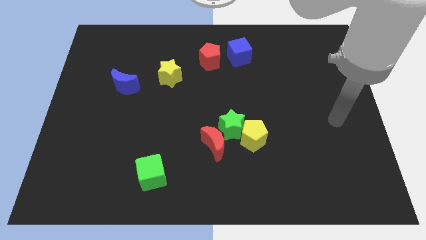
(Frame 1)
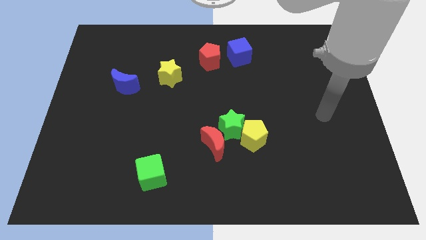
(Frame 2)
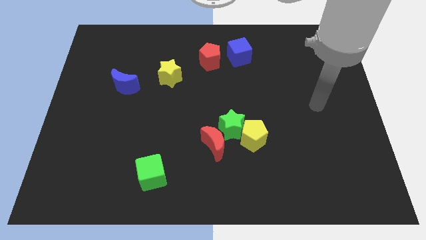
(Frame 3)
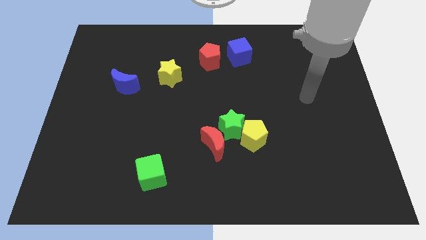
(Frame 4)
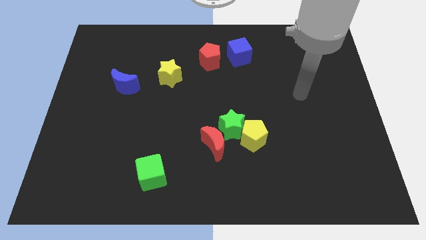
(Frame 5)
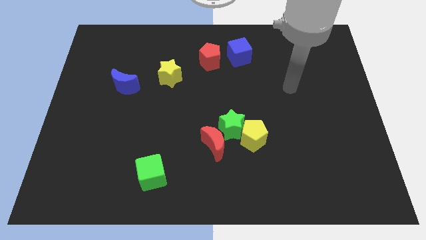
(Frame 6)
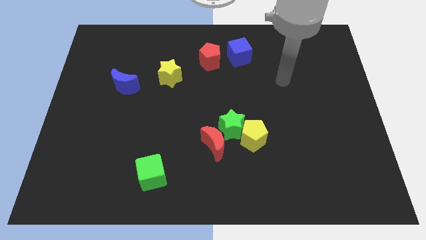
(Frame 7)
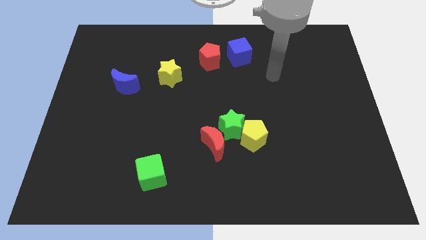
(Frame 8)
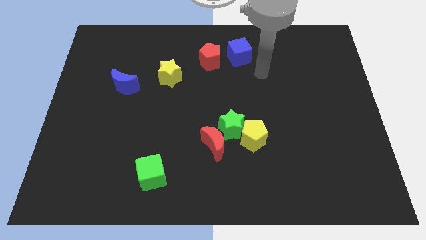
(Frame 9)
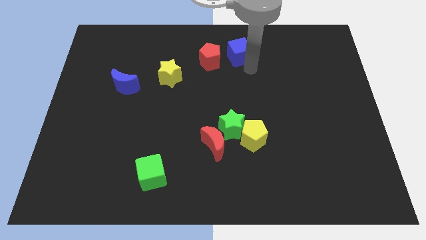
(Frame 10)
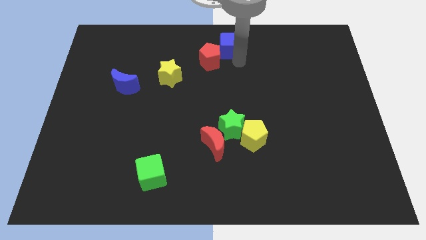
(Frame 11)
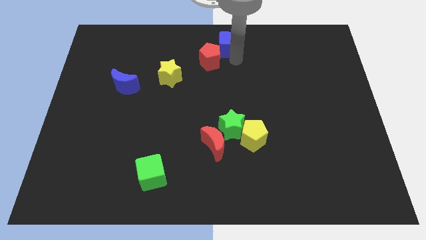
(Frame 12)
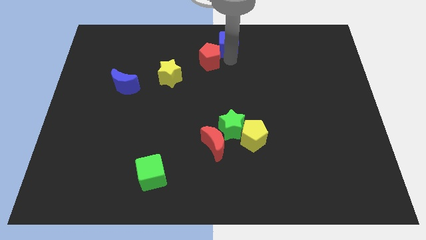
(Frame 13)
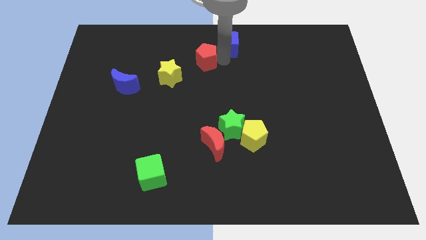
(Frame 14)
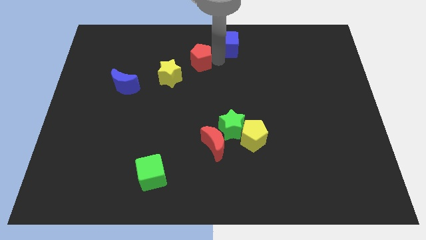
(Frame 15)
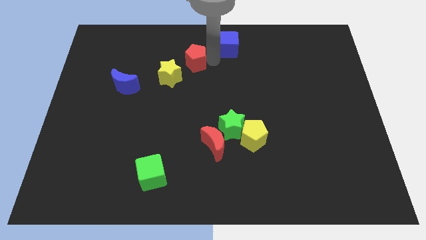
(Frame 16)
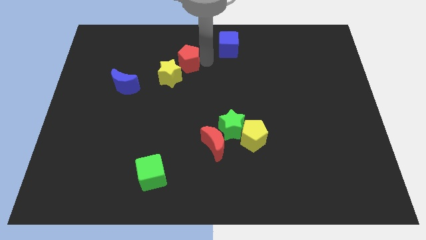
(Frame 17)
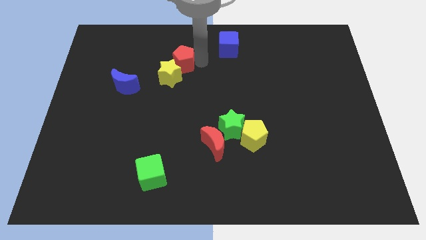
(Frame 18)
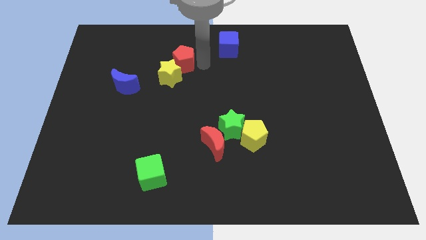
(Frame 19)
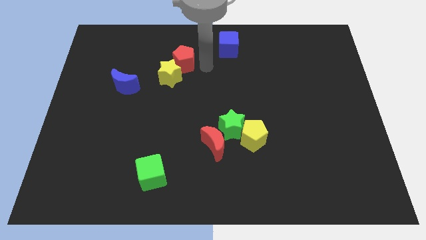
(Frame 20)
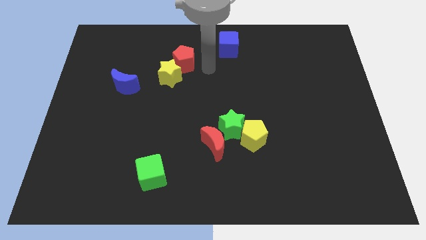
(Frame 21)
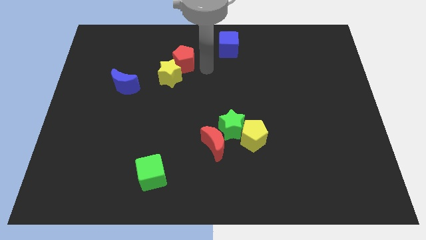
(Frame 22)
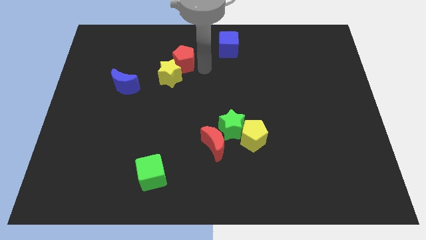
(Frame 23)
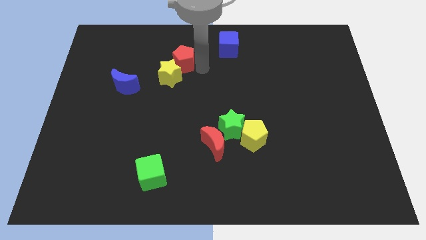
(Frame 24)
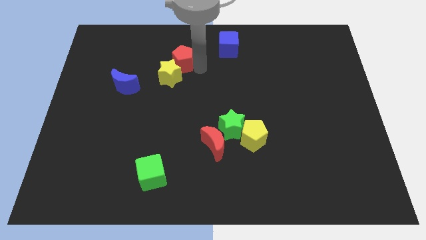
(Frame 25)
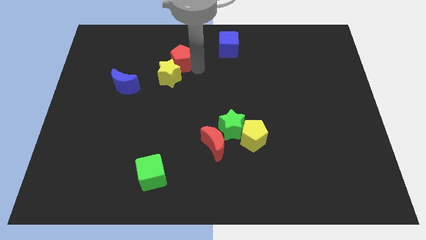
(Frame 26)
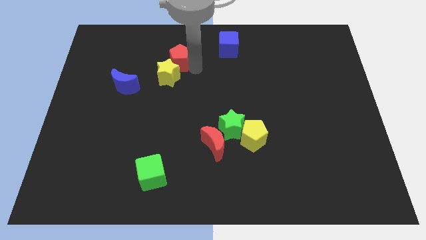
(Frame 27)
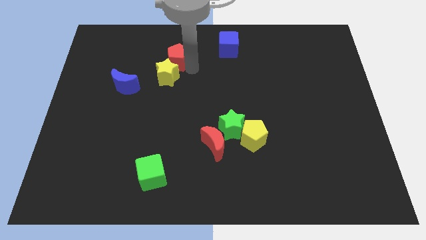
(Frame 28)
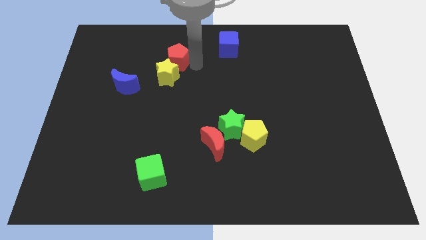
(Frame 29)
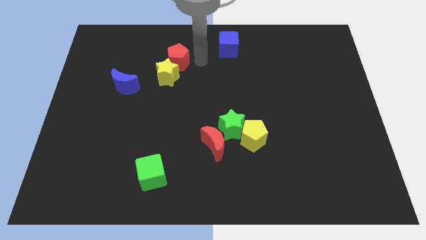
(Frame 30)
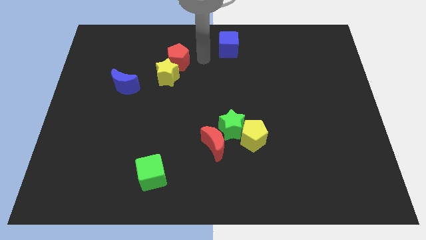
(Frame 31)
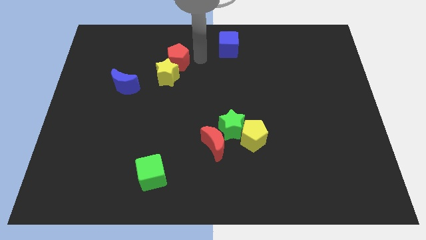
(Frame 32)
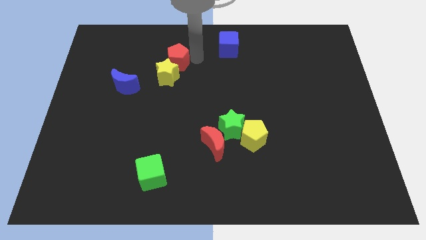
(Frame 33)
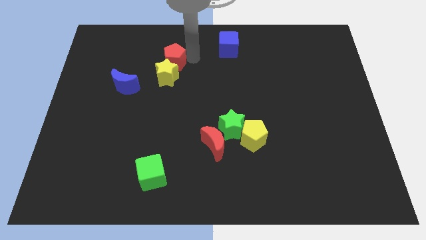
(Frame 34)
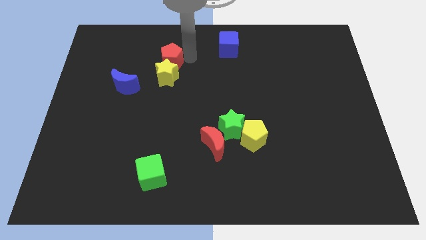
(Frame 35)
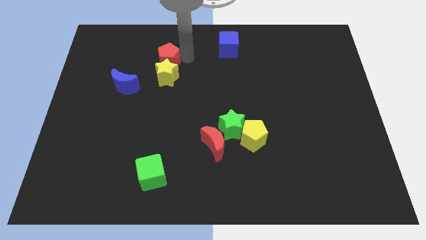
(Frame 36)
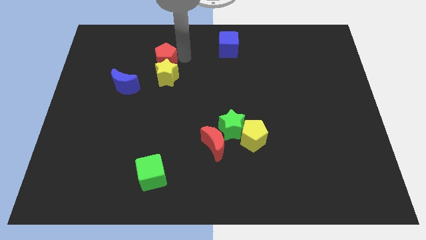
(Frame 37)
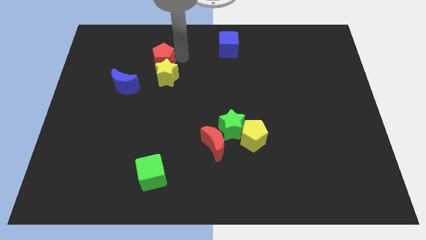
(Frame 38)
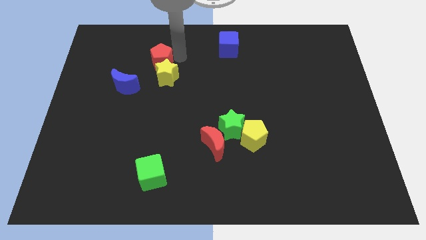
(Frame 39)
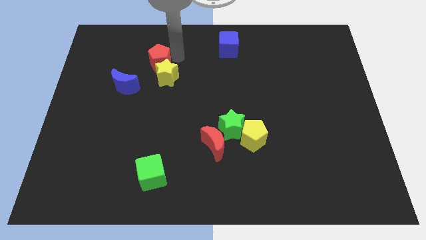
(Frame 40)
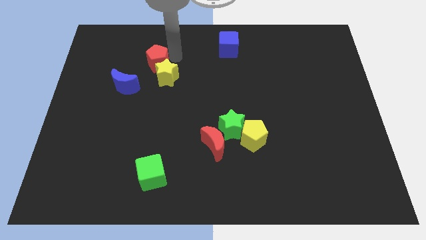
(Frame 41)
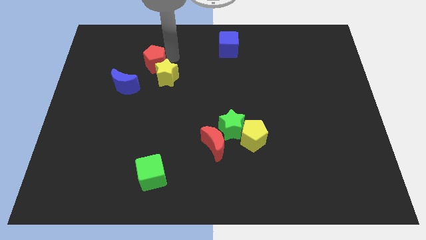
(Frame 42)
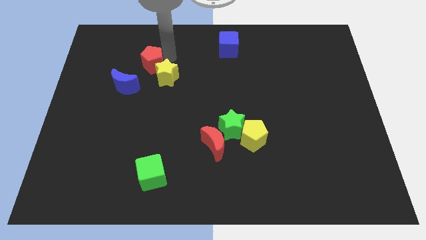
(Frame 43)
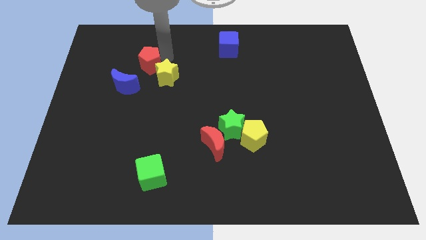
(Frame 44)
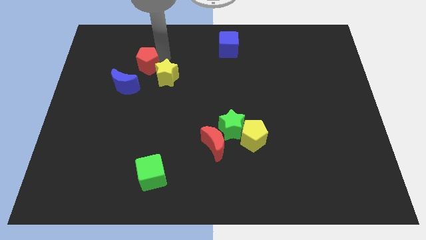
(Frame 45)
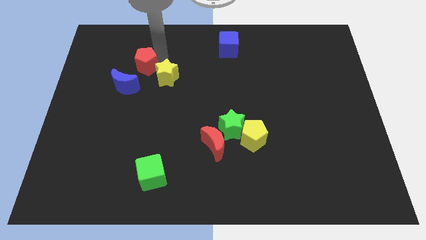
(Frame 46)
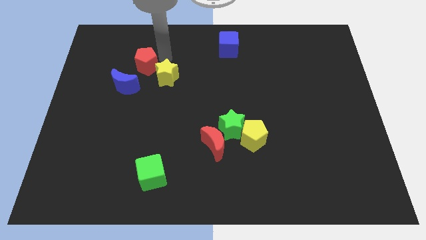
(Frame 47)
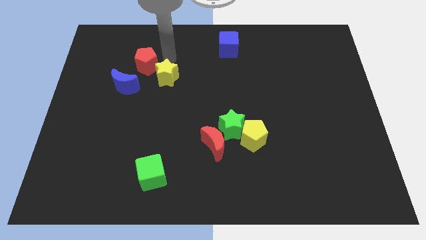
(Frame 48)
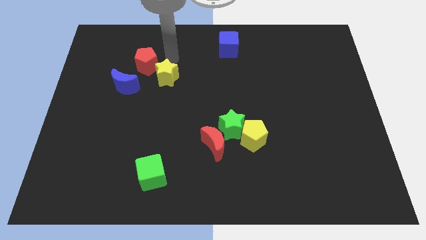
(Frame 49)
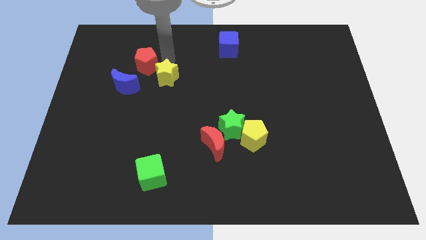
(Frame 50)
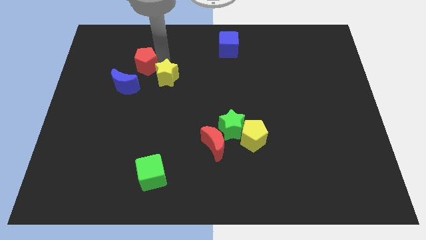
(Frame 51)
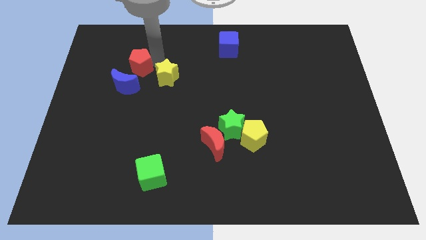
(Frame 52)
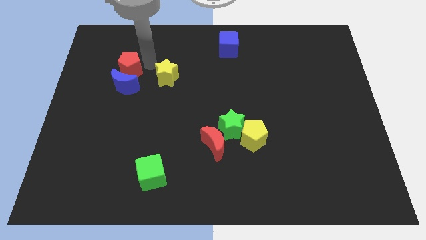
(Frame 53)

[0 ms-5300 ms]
slide the red pentagon to the top left of the blue moon

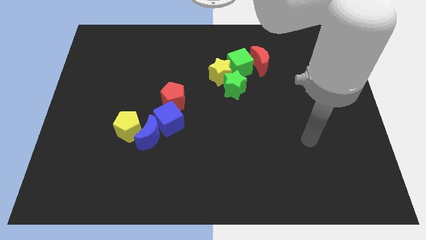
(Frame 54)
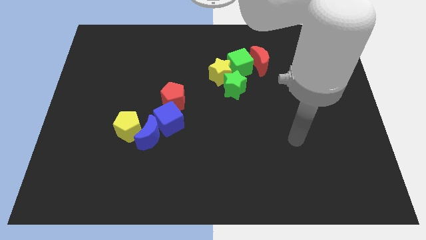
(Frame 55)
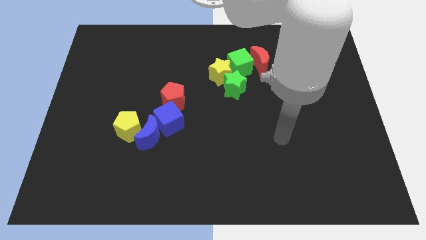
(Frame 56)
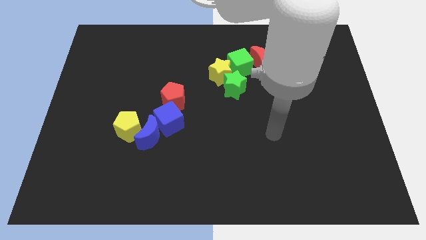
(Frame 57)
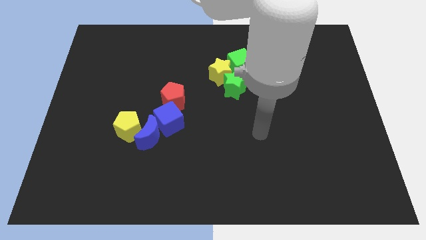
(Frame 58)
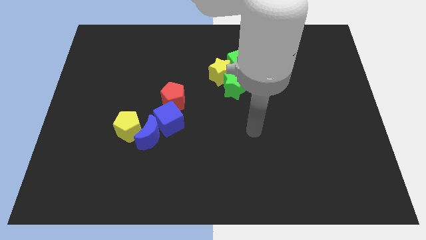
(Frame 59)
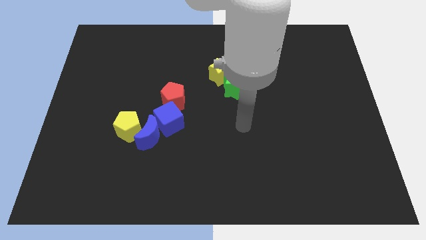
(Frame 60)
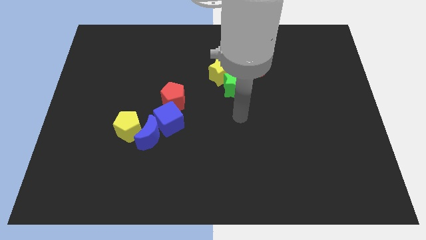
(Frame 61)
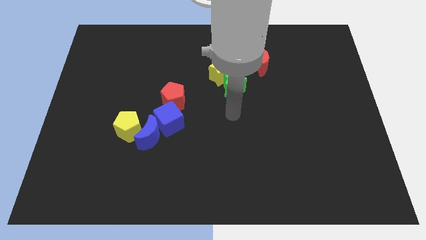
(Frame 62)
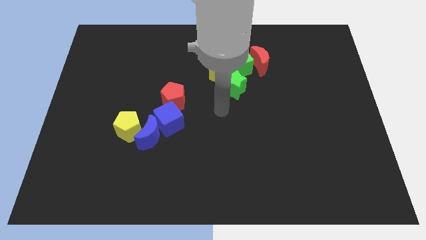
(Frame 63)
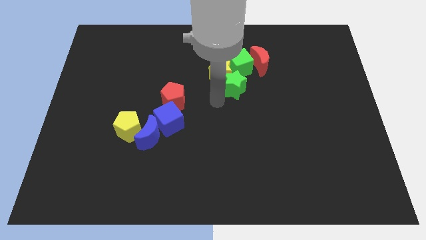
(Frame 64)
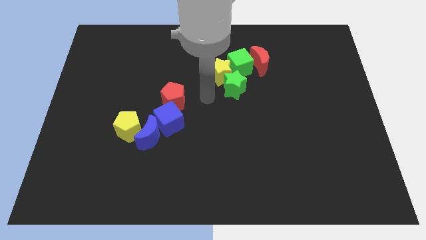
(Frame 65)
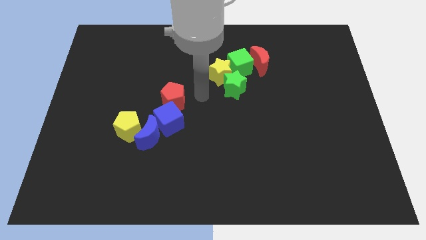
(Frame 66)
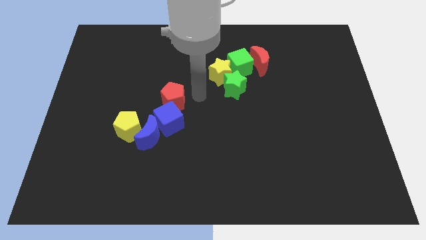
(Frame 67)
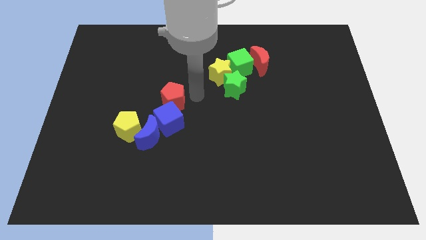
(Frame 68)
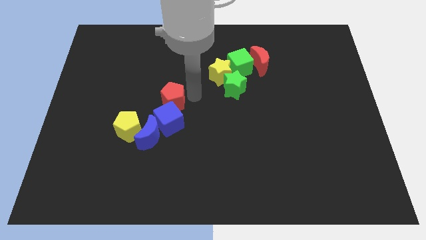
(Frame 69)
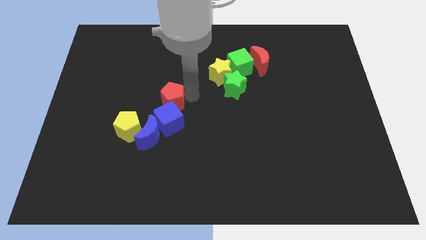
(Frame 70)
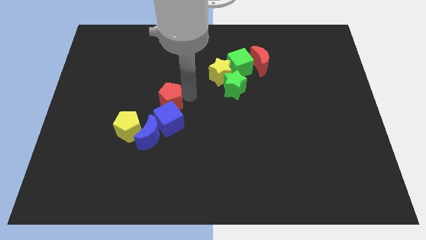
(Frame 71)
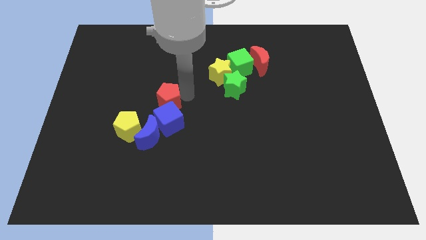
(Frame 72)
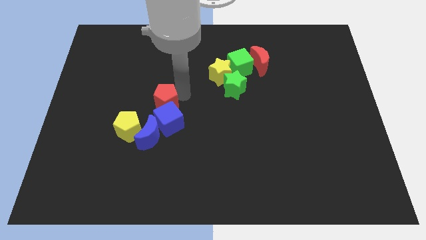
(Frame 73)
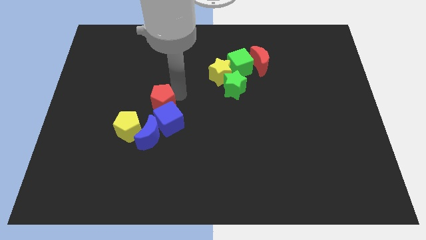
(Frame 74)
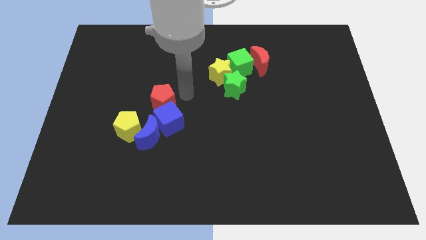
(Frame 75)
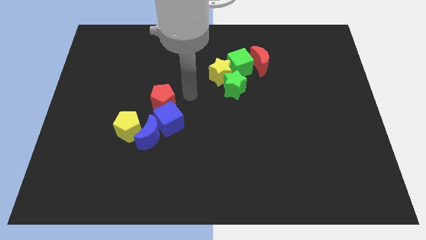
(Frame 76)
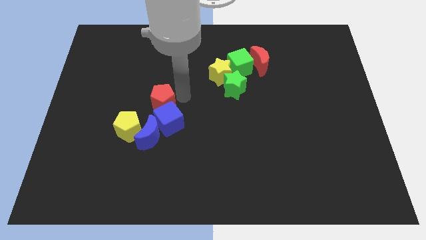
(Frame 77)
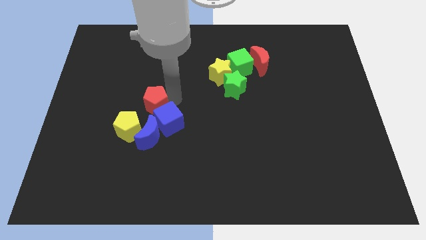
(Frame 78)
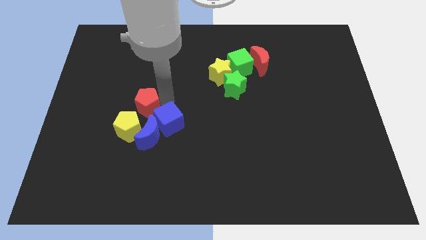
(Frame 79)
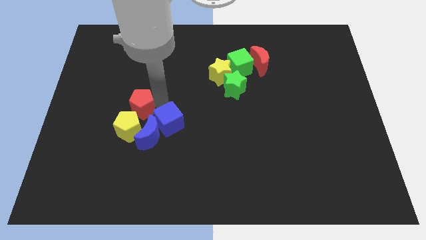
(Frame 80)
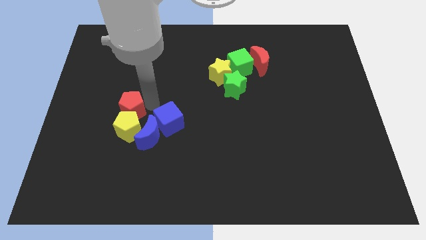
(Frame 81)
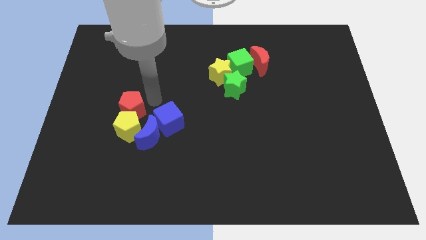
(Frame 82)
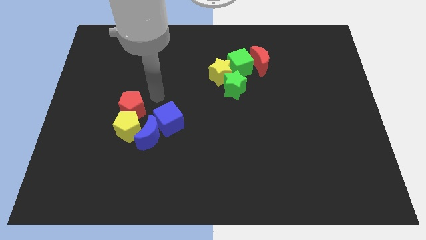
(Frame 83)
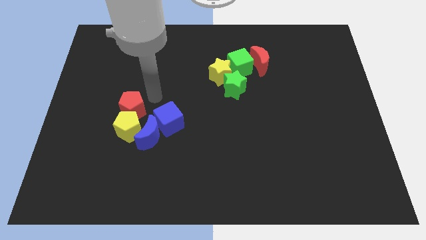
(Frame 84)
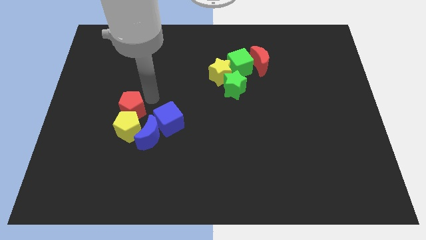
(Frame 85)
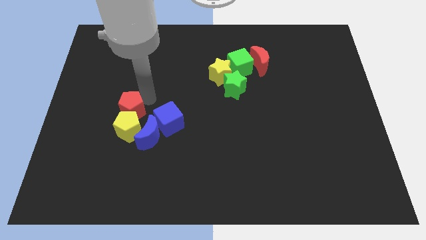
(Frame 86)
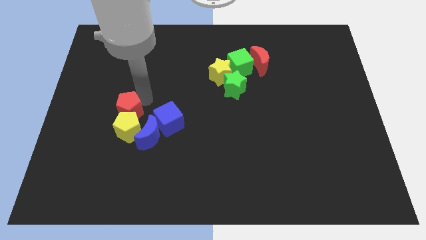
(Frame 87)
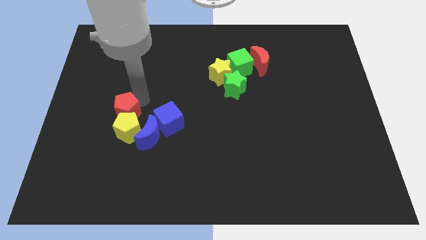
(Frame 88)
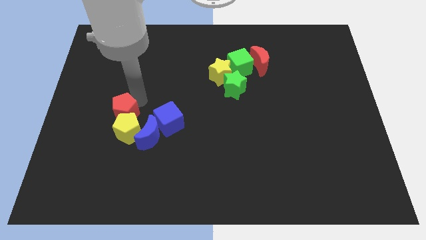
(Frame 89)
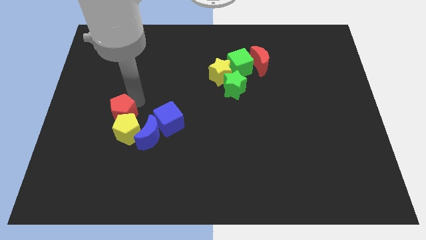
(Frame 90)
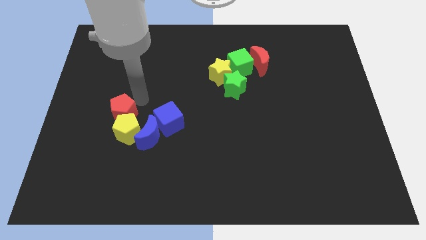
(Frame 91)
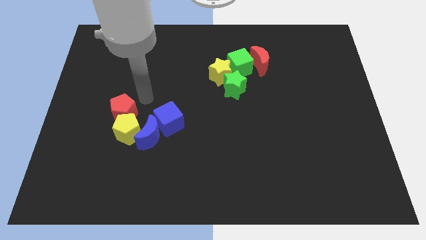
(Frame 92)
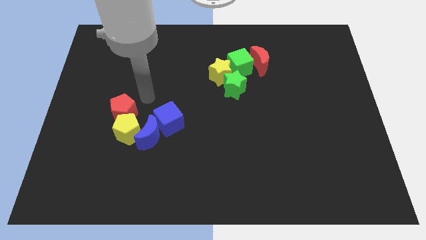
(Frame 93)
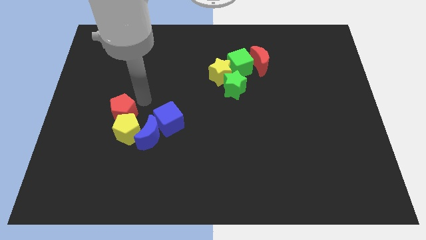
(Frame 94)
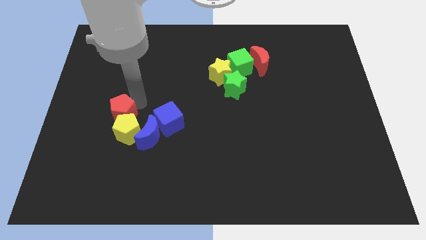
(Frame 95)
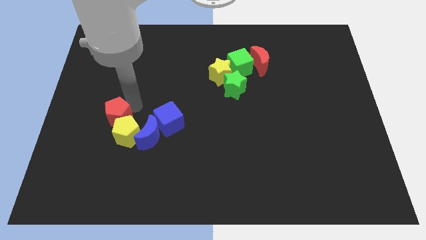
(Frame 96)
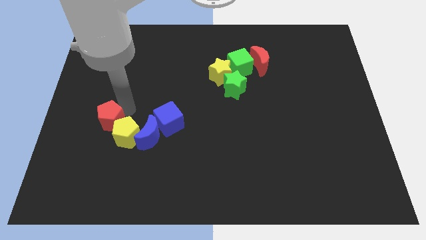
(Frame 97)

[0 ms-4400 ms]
push the red pentagon just left of the blue moon
